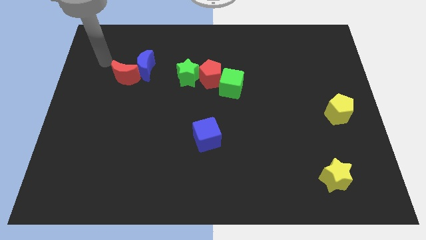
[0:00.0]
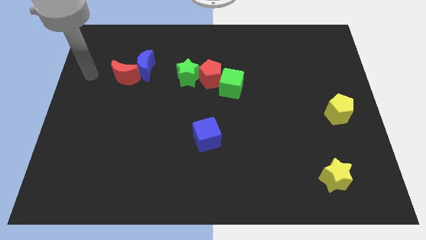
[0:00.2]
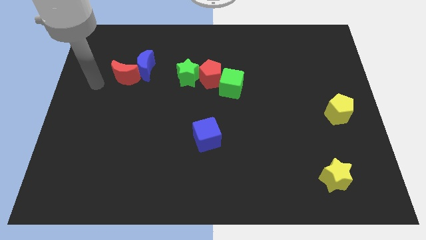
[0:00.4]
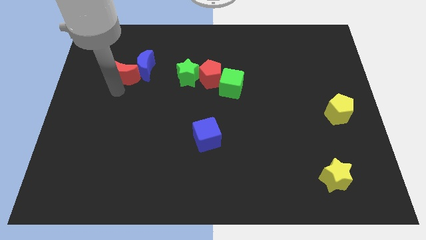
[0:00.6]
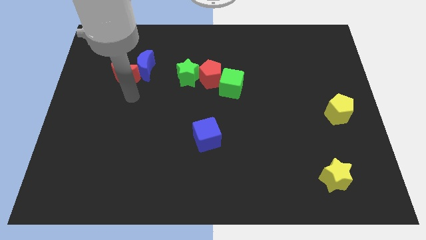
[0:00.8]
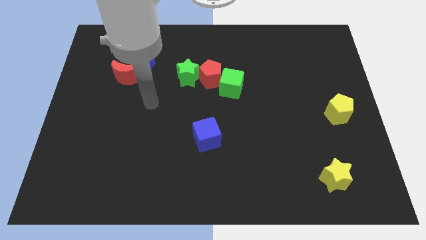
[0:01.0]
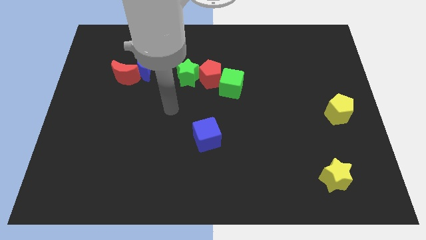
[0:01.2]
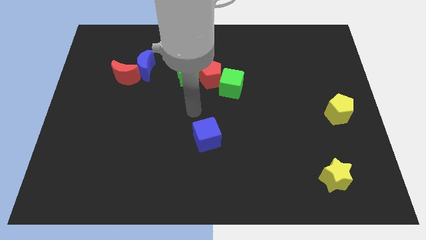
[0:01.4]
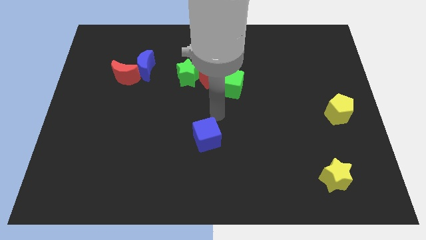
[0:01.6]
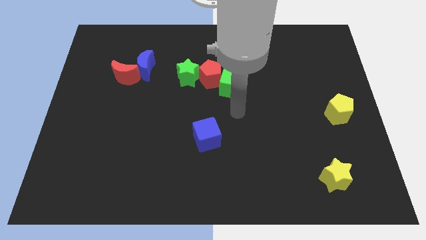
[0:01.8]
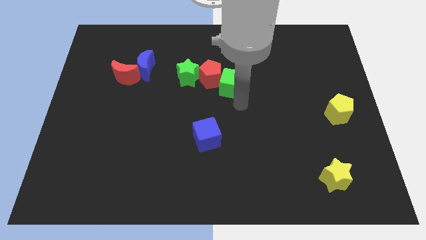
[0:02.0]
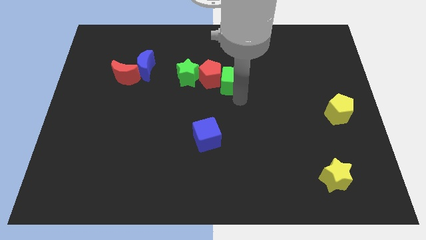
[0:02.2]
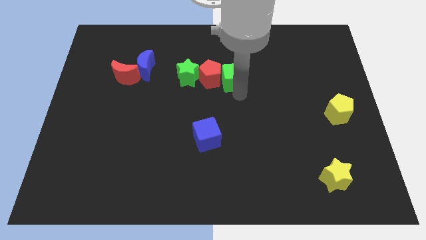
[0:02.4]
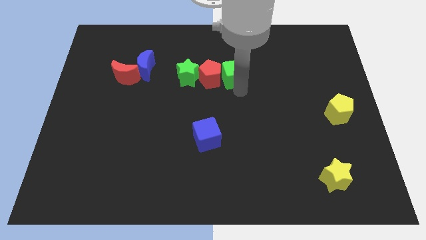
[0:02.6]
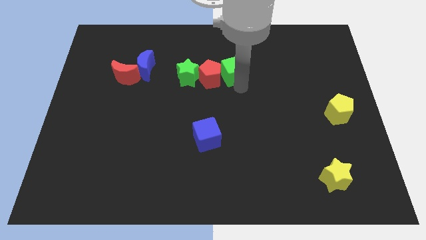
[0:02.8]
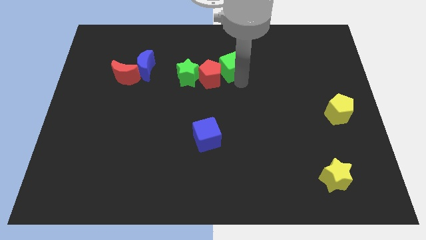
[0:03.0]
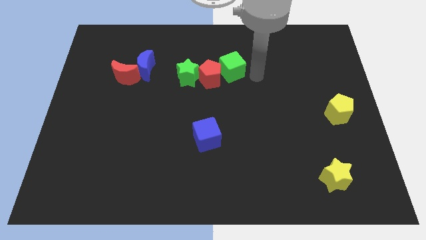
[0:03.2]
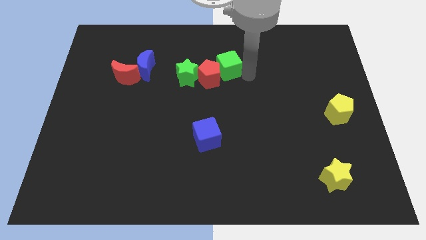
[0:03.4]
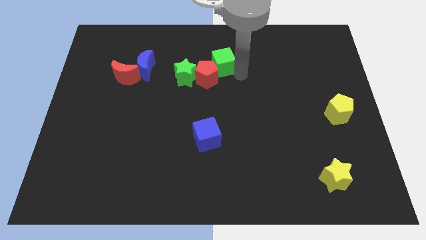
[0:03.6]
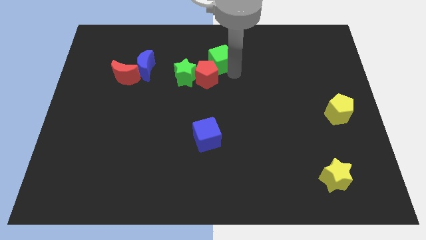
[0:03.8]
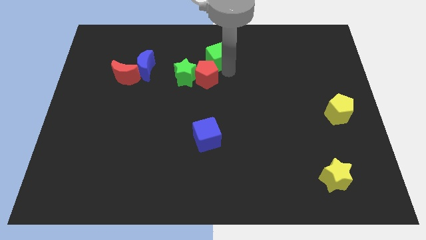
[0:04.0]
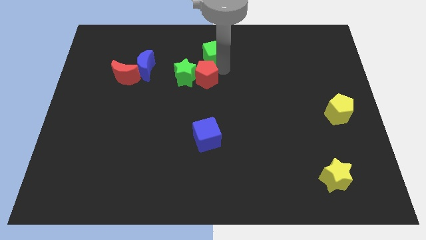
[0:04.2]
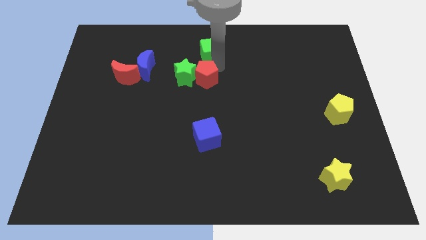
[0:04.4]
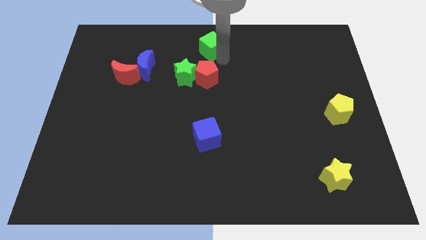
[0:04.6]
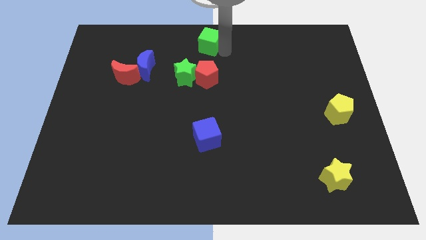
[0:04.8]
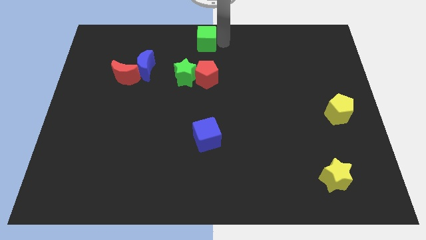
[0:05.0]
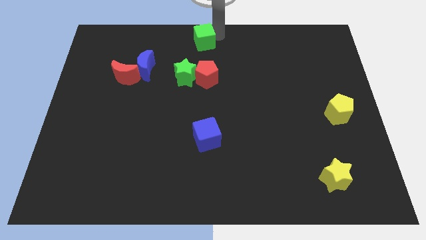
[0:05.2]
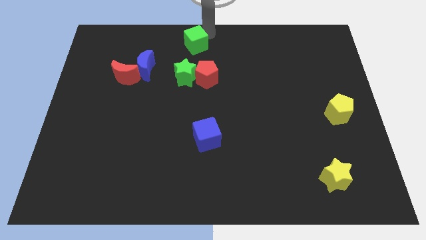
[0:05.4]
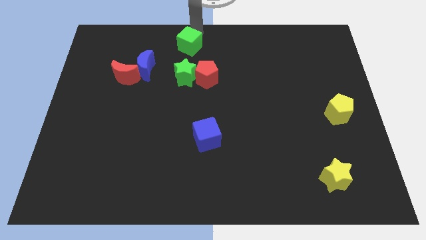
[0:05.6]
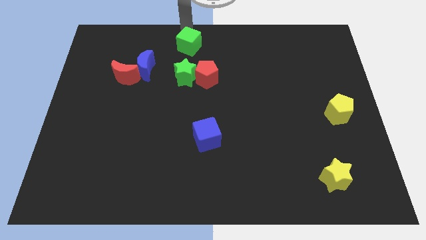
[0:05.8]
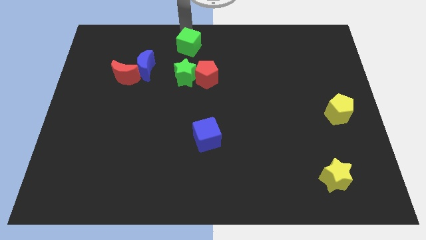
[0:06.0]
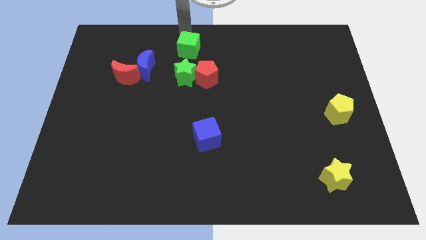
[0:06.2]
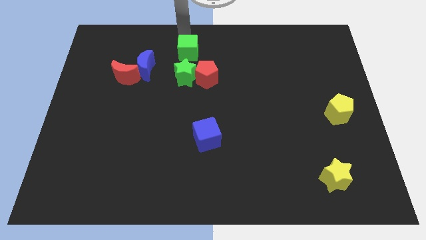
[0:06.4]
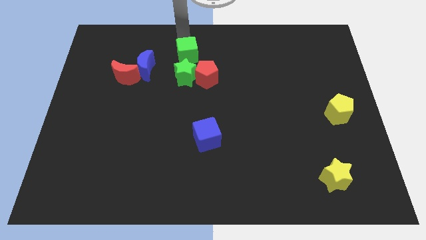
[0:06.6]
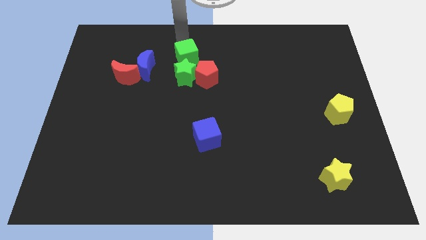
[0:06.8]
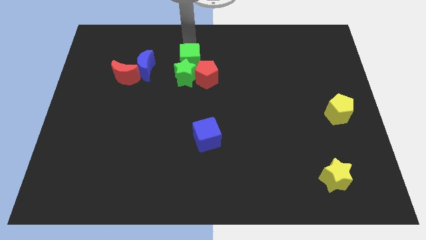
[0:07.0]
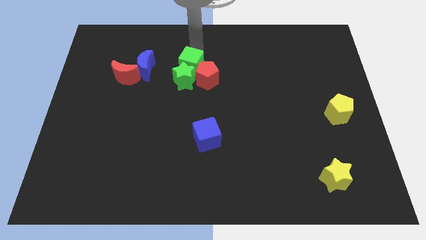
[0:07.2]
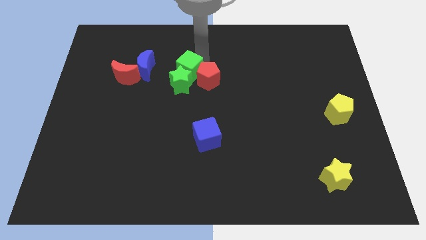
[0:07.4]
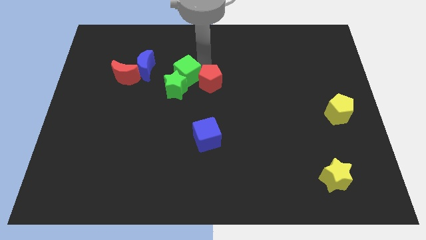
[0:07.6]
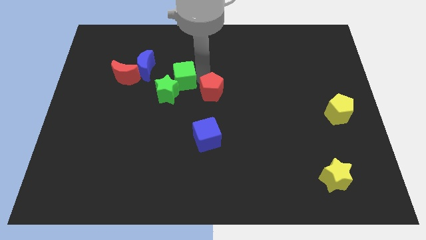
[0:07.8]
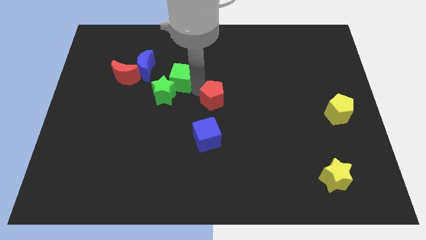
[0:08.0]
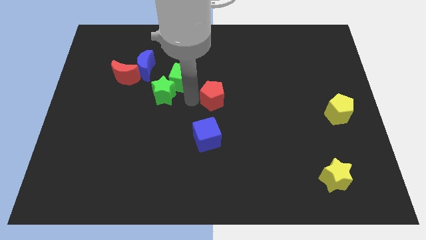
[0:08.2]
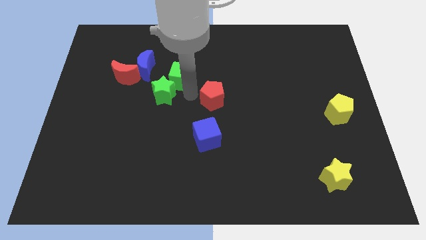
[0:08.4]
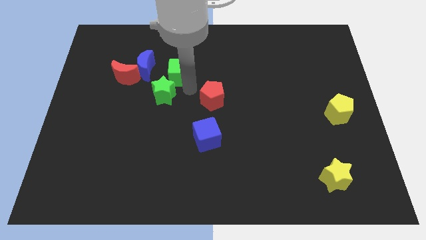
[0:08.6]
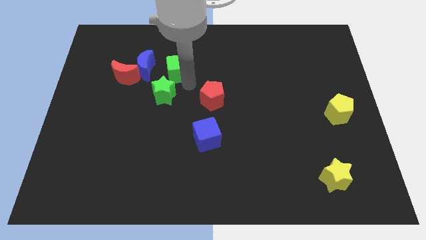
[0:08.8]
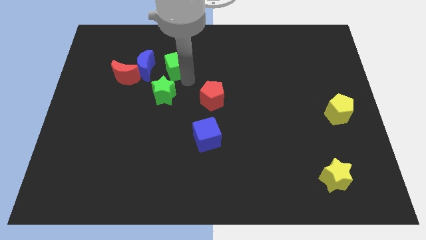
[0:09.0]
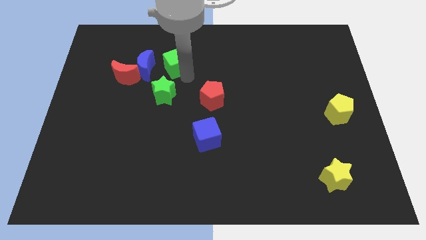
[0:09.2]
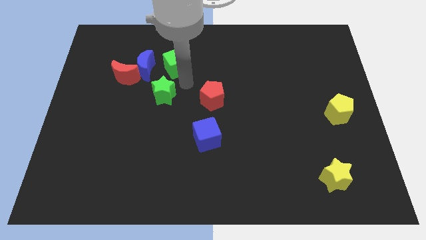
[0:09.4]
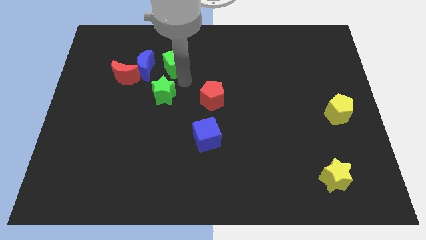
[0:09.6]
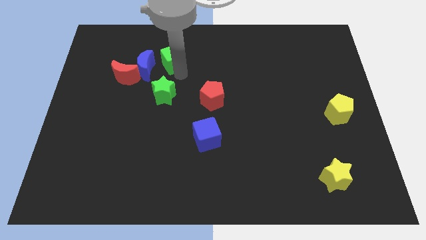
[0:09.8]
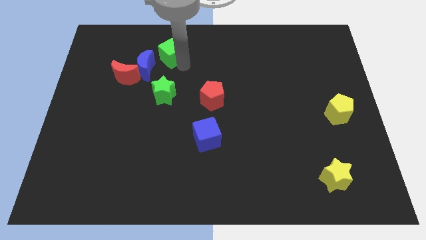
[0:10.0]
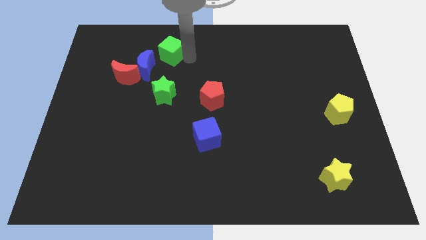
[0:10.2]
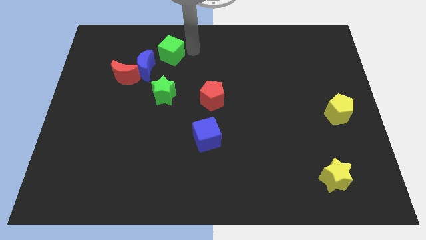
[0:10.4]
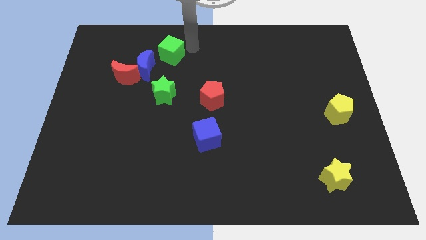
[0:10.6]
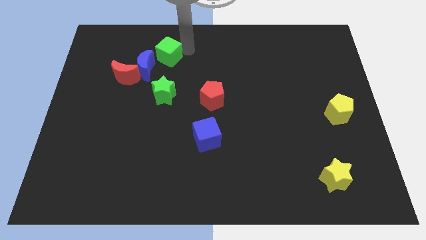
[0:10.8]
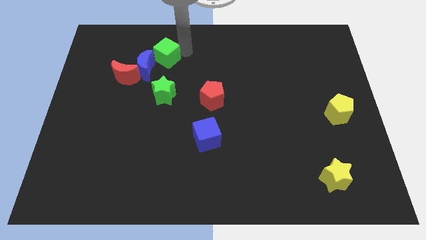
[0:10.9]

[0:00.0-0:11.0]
push the green cube to the top right of the red moon

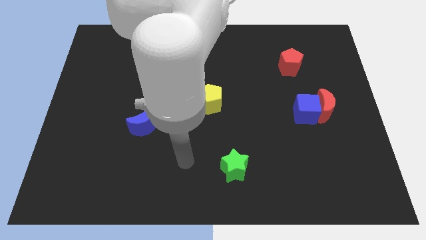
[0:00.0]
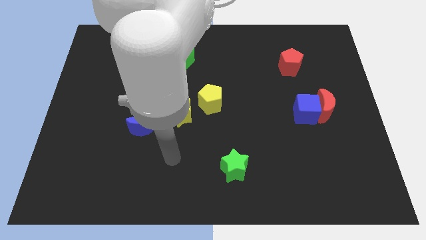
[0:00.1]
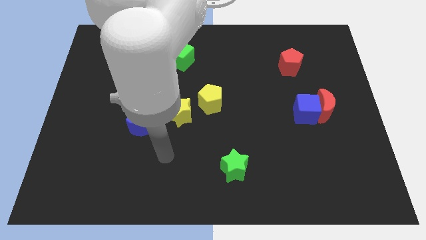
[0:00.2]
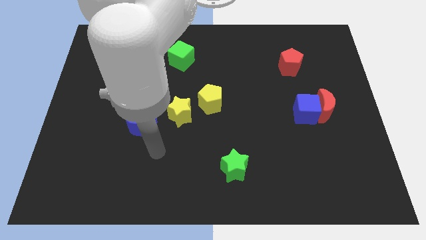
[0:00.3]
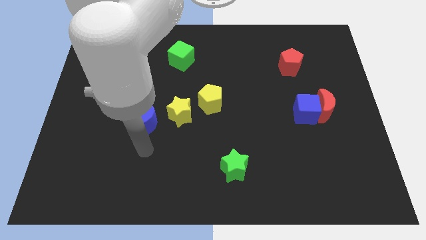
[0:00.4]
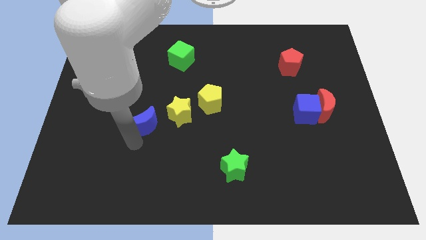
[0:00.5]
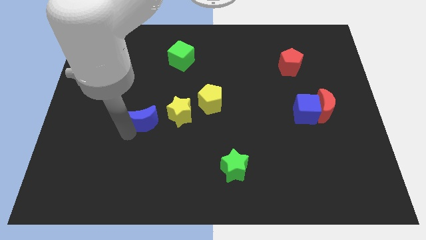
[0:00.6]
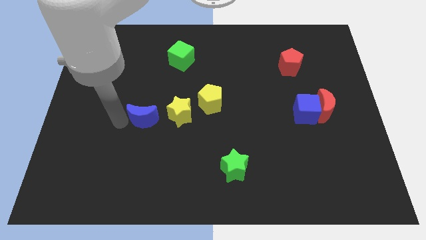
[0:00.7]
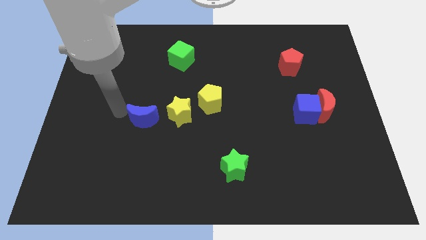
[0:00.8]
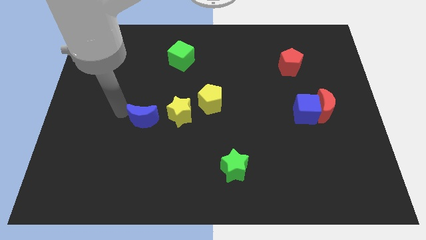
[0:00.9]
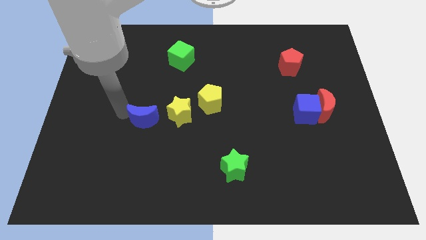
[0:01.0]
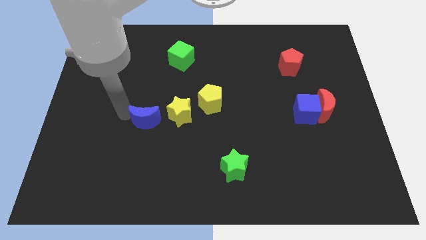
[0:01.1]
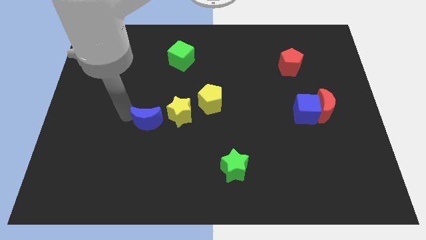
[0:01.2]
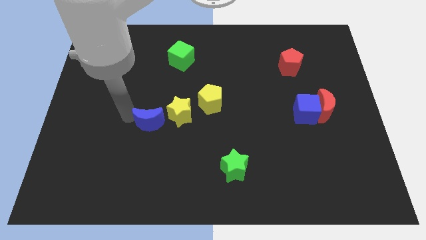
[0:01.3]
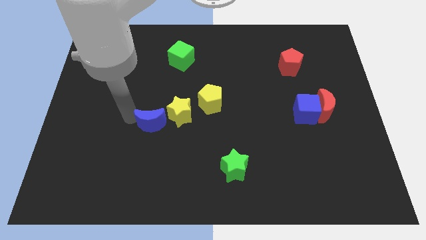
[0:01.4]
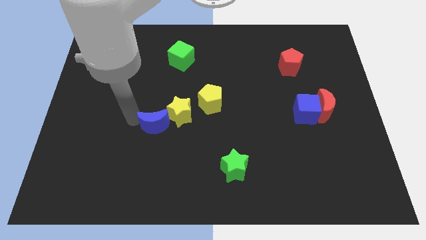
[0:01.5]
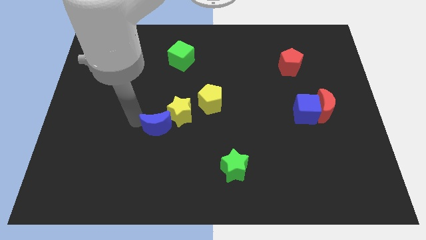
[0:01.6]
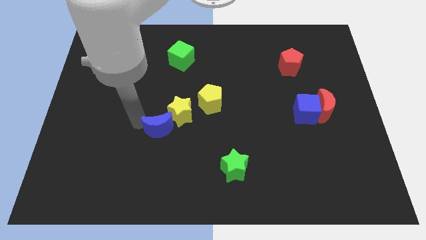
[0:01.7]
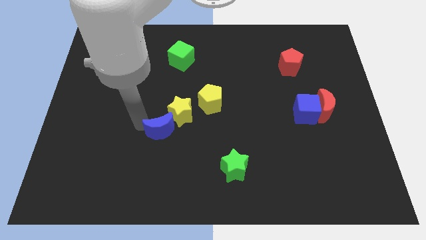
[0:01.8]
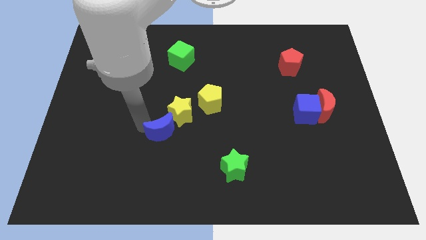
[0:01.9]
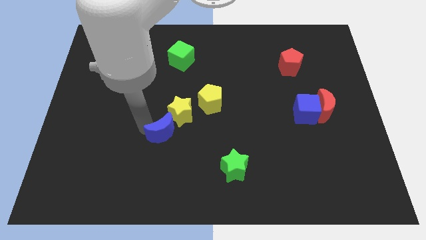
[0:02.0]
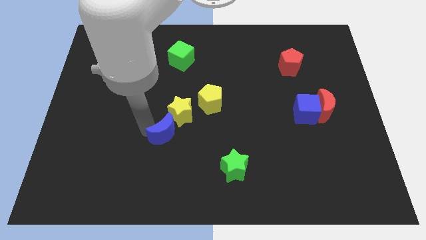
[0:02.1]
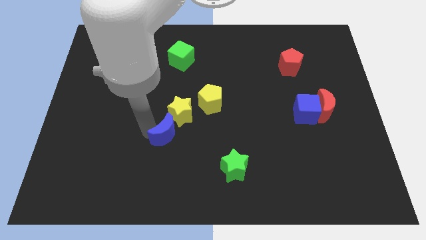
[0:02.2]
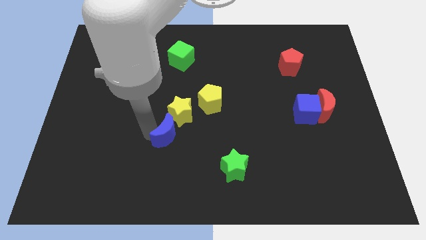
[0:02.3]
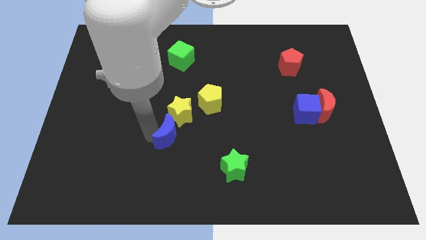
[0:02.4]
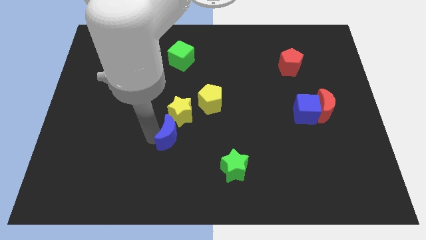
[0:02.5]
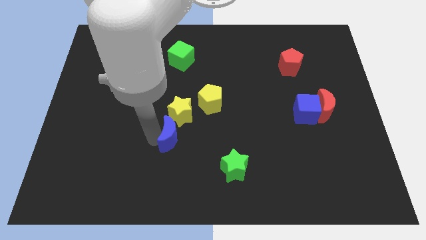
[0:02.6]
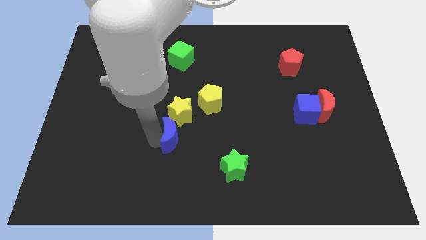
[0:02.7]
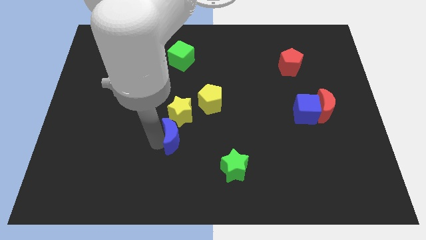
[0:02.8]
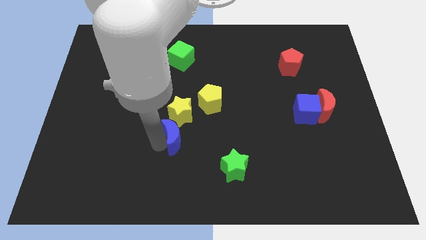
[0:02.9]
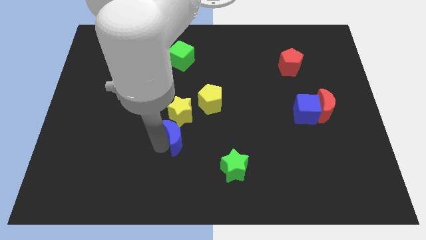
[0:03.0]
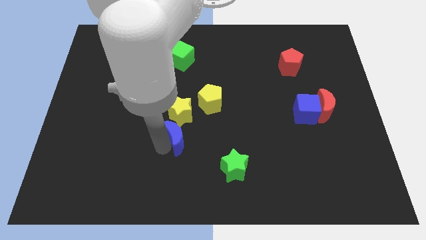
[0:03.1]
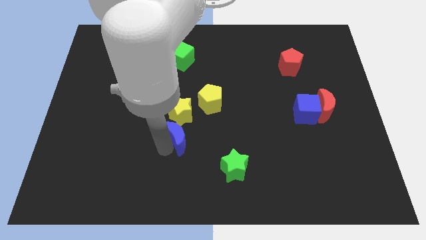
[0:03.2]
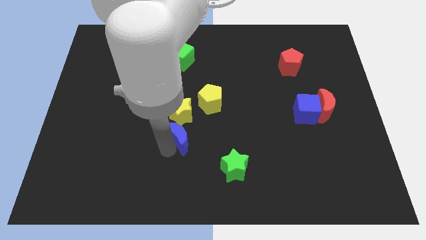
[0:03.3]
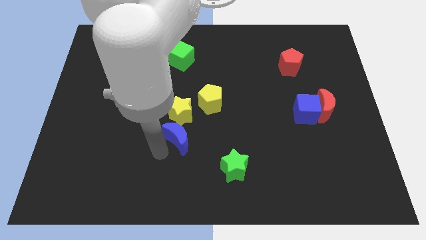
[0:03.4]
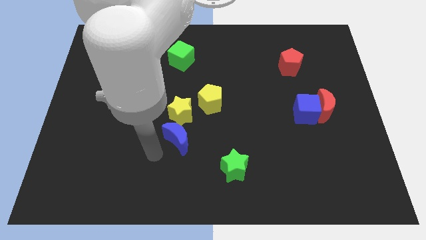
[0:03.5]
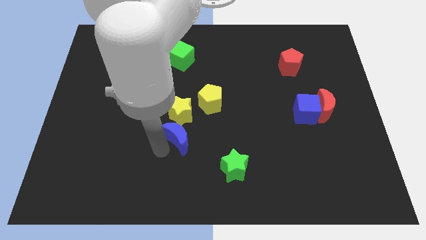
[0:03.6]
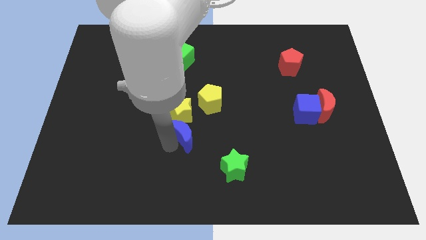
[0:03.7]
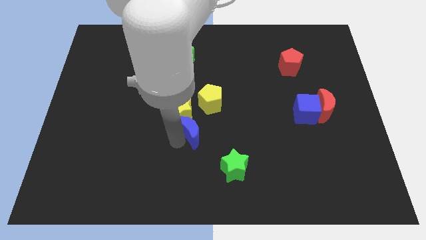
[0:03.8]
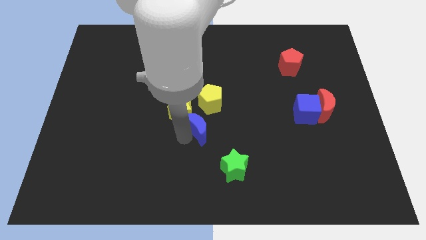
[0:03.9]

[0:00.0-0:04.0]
move the blue moon right of the yellow star
